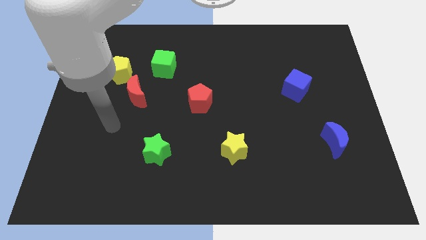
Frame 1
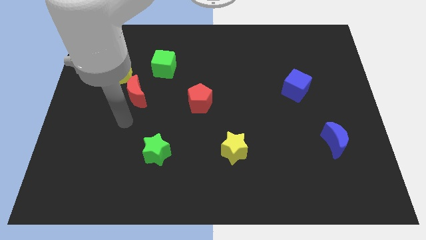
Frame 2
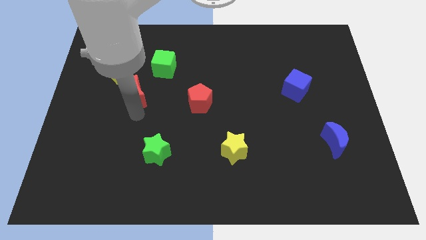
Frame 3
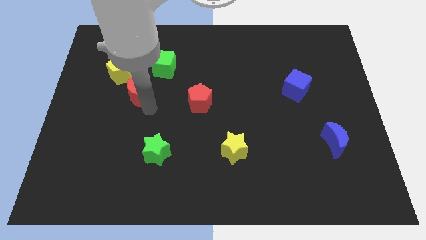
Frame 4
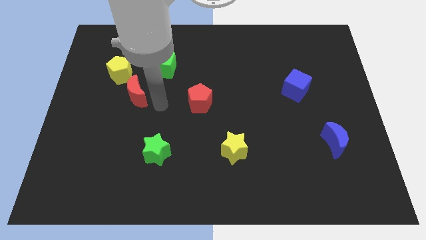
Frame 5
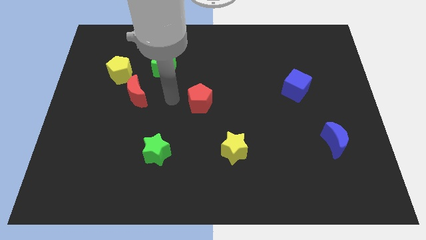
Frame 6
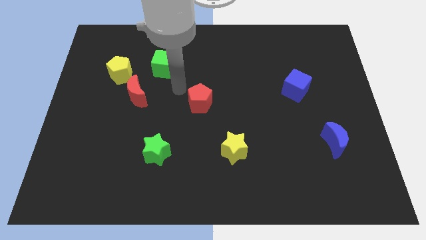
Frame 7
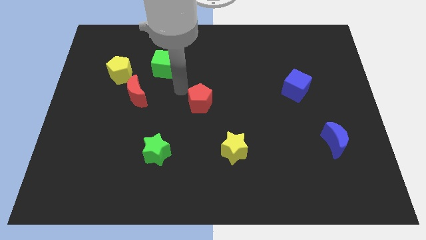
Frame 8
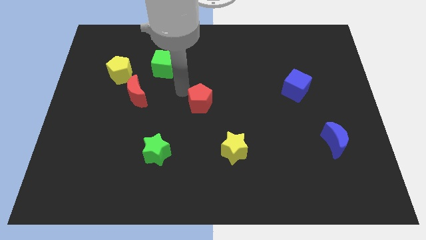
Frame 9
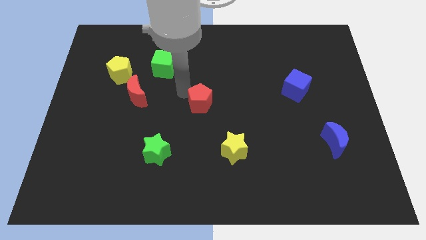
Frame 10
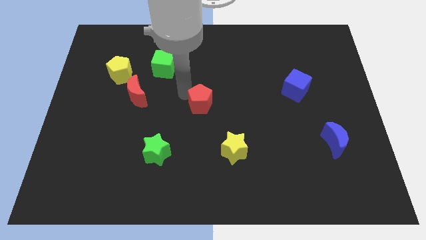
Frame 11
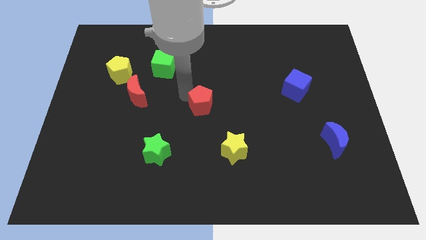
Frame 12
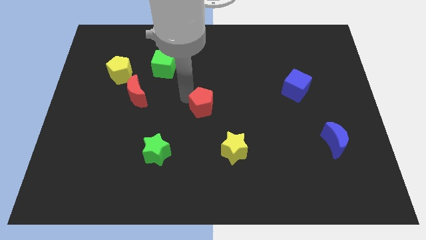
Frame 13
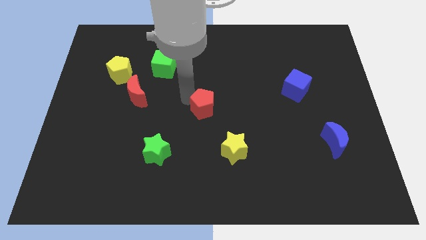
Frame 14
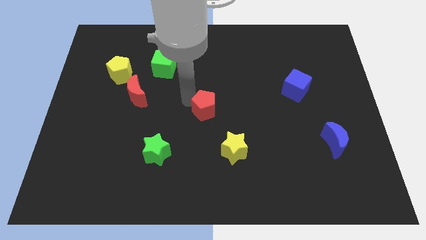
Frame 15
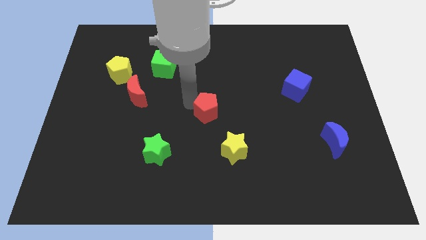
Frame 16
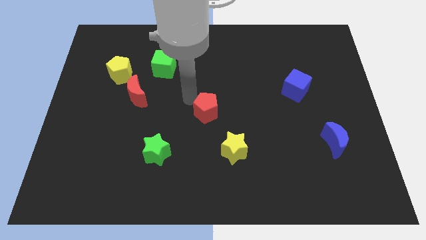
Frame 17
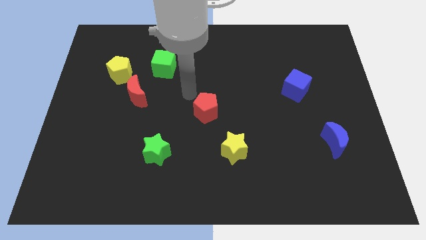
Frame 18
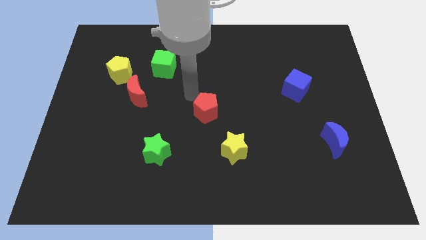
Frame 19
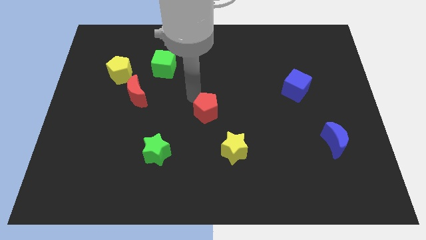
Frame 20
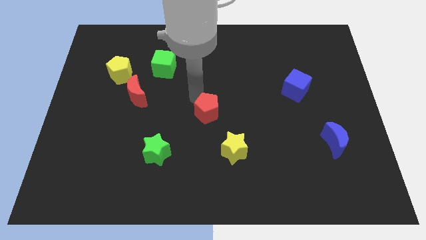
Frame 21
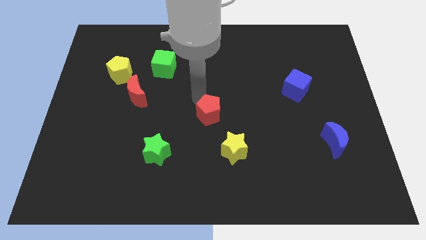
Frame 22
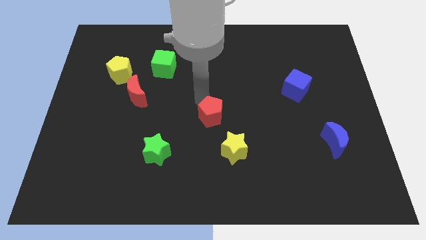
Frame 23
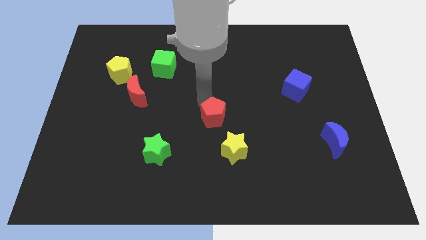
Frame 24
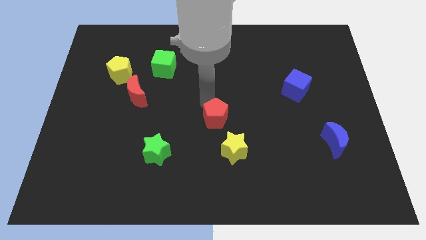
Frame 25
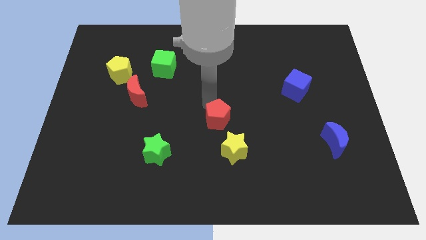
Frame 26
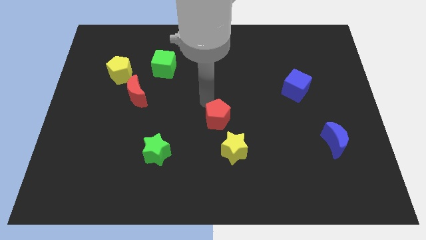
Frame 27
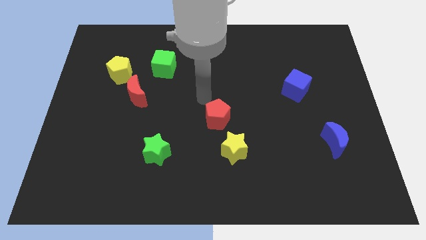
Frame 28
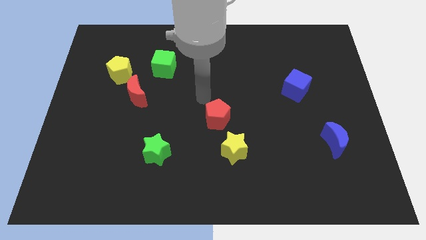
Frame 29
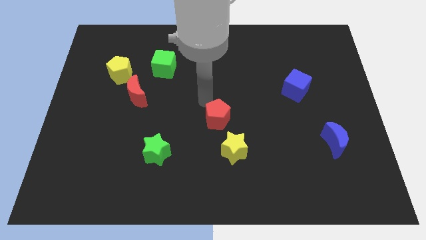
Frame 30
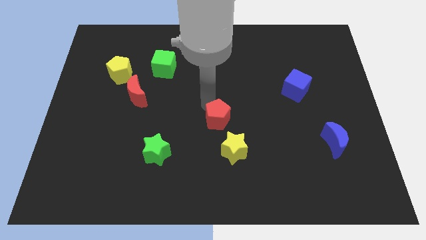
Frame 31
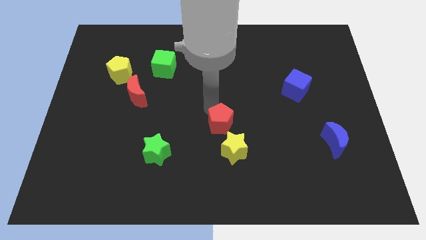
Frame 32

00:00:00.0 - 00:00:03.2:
push the red pentagon somewhat downwards and right diagonally

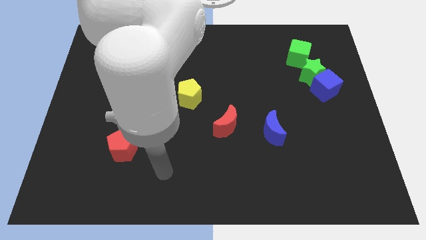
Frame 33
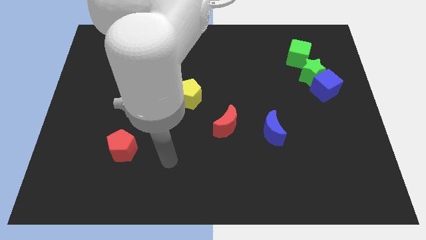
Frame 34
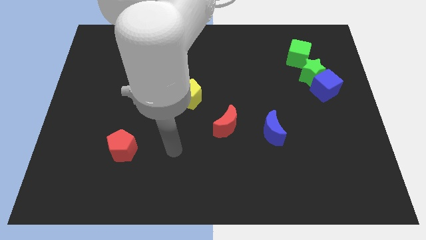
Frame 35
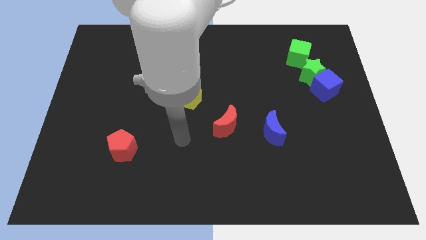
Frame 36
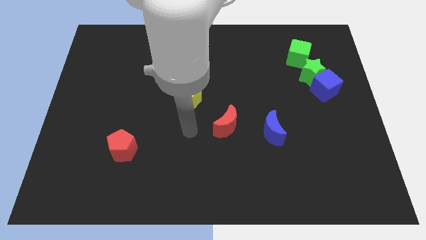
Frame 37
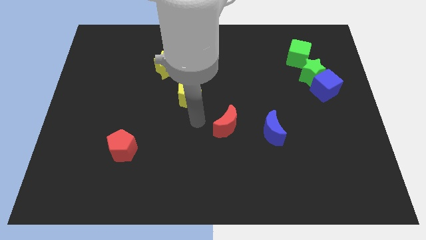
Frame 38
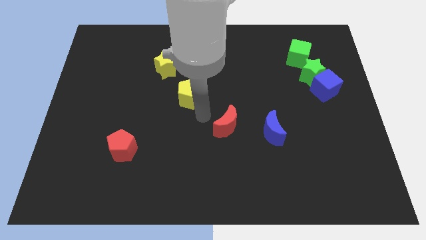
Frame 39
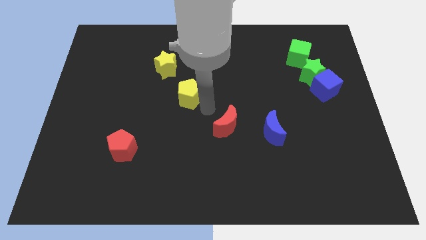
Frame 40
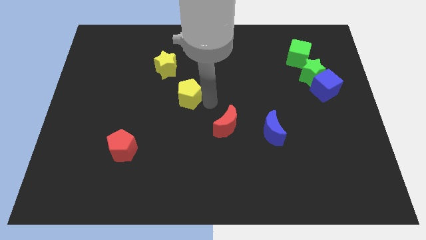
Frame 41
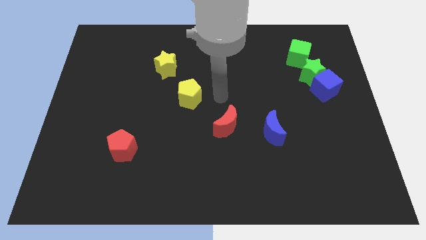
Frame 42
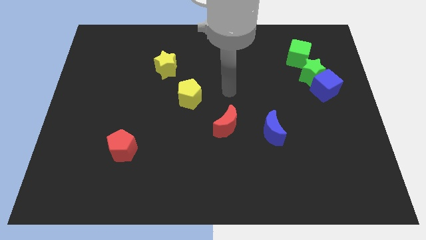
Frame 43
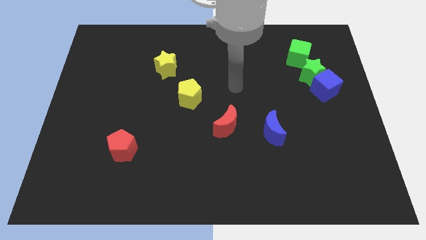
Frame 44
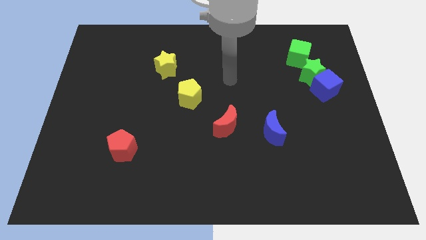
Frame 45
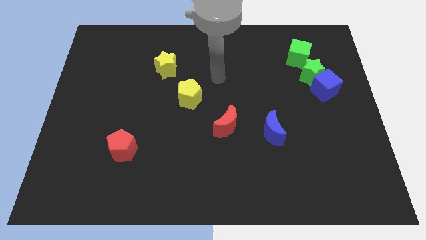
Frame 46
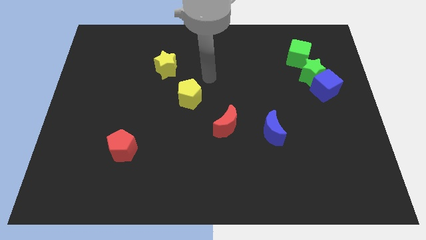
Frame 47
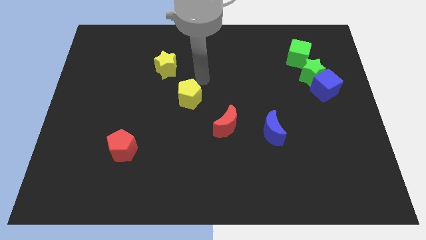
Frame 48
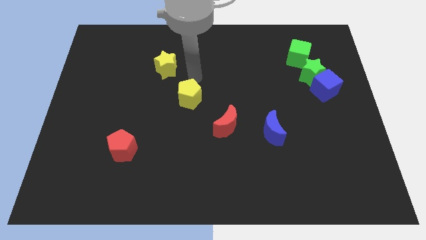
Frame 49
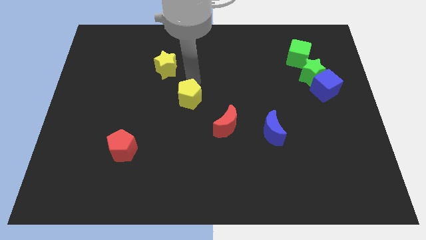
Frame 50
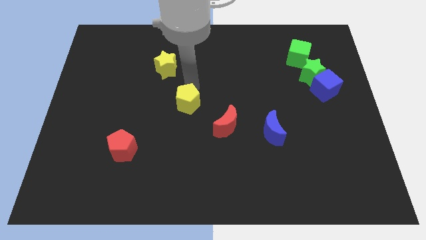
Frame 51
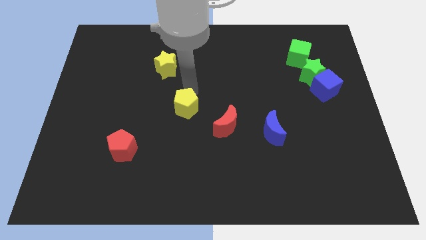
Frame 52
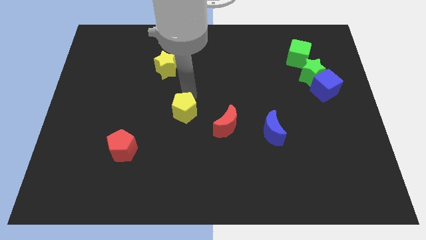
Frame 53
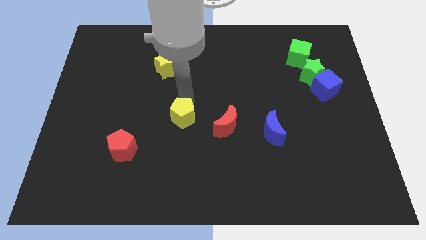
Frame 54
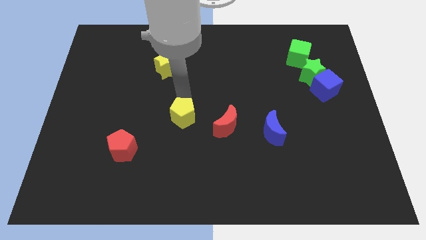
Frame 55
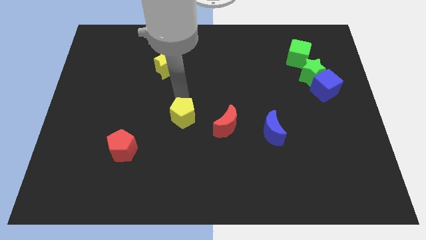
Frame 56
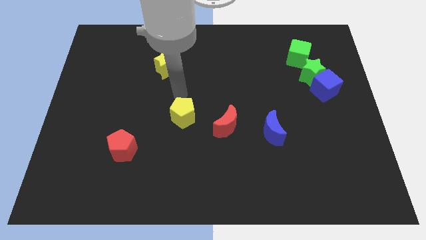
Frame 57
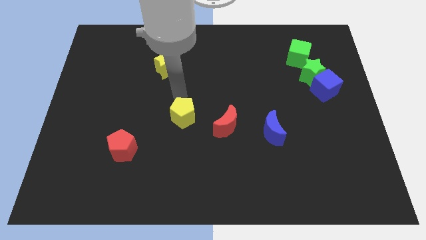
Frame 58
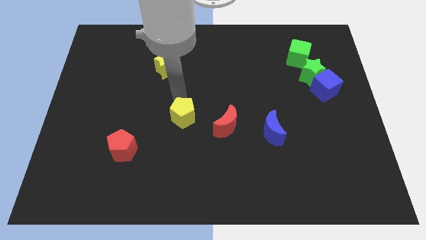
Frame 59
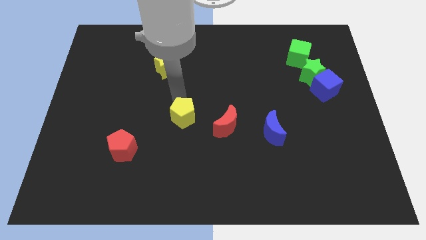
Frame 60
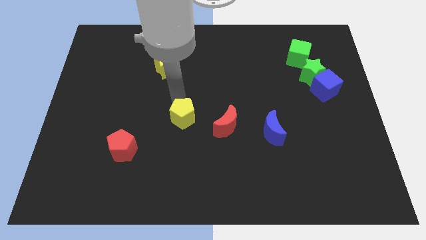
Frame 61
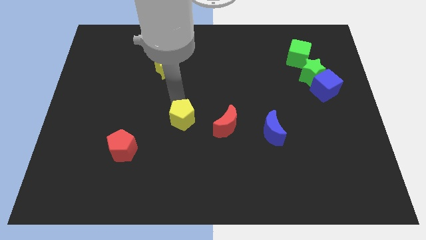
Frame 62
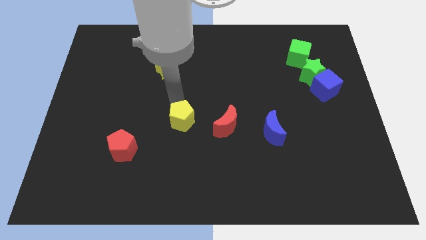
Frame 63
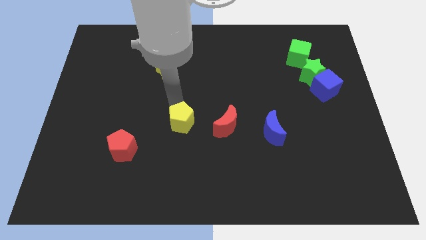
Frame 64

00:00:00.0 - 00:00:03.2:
slightly move the yellow pentagon down

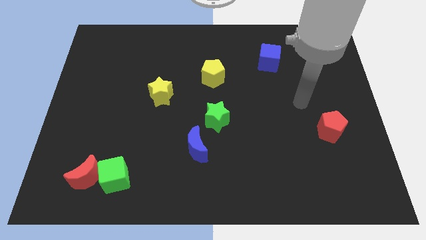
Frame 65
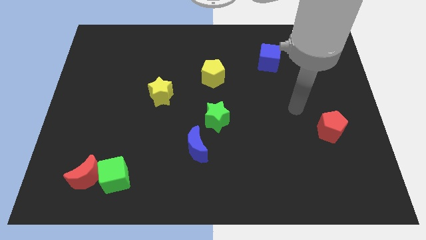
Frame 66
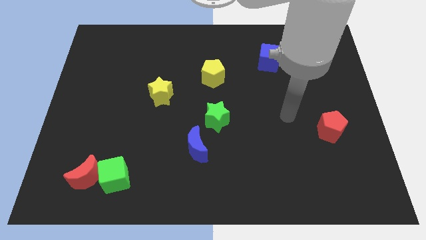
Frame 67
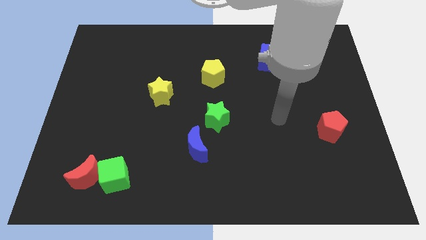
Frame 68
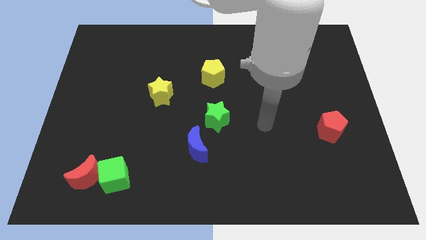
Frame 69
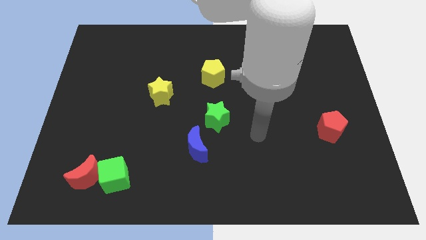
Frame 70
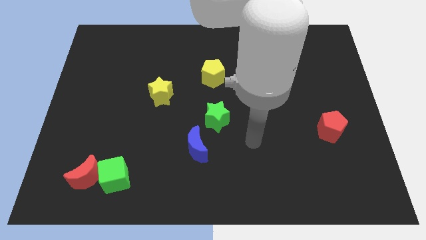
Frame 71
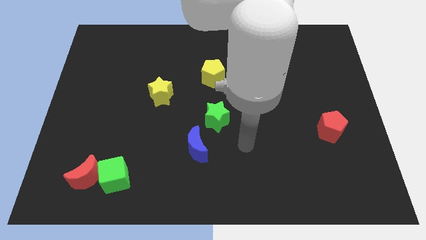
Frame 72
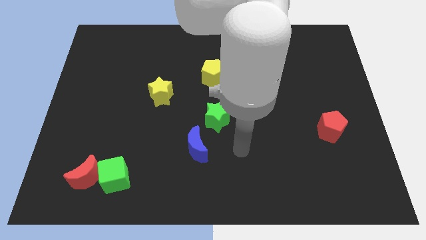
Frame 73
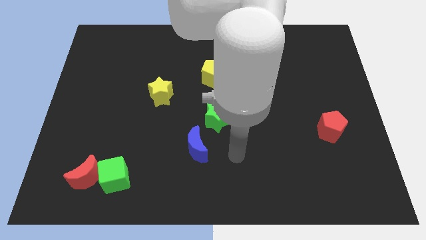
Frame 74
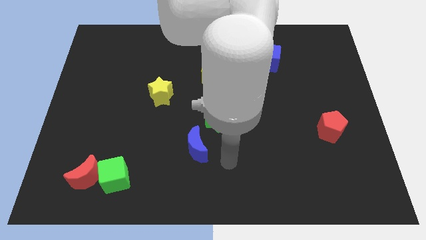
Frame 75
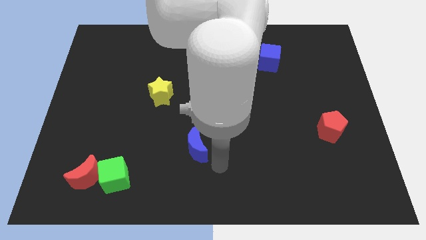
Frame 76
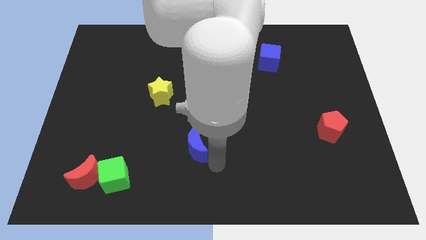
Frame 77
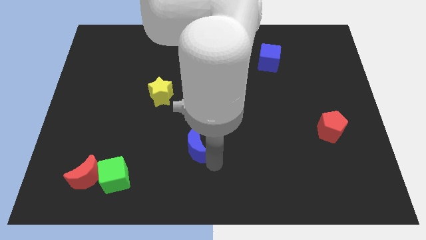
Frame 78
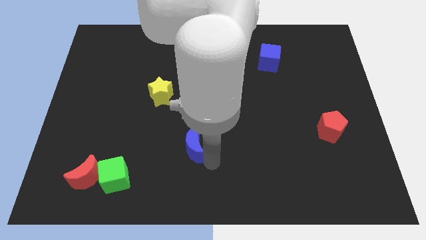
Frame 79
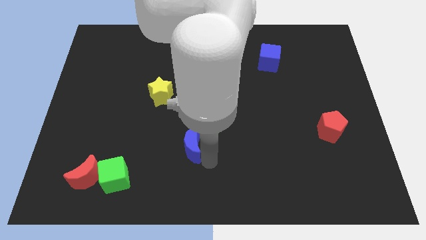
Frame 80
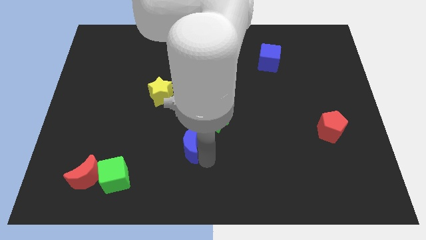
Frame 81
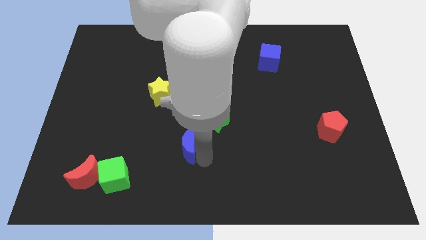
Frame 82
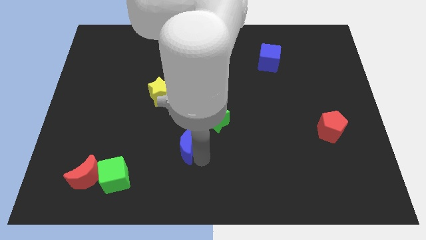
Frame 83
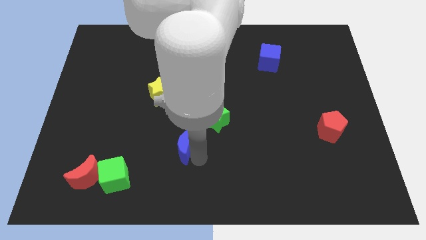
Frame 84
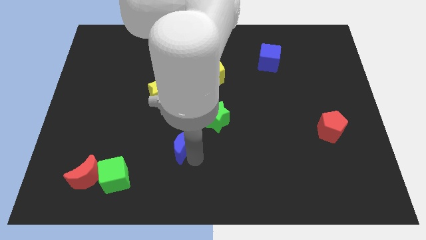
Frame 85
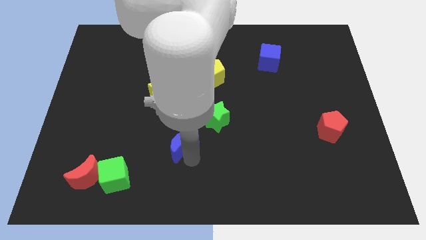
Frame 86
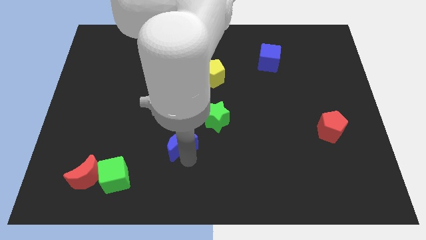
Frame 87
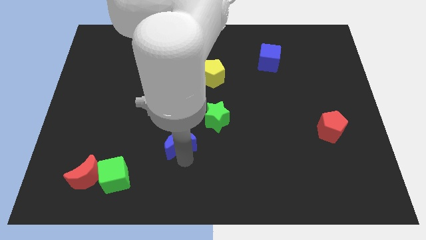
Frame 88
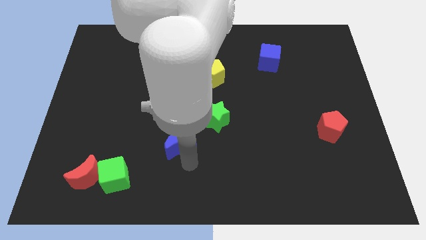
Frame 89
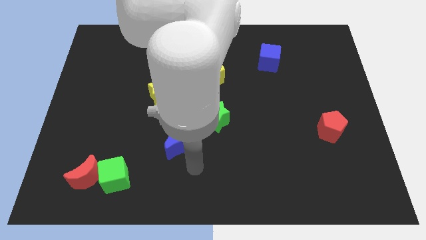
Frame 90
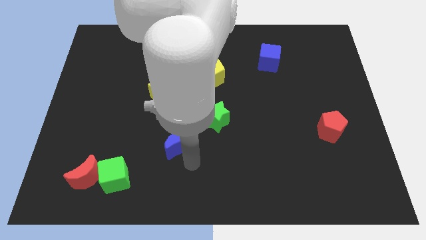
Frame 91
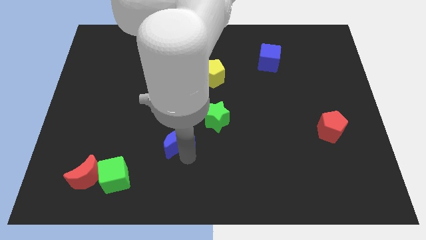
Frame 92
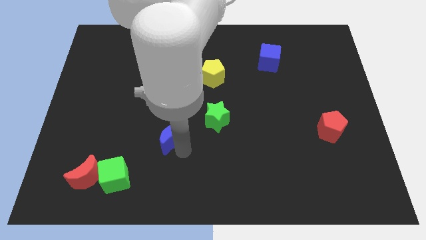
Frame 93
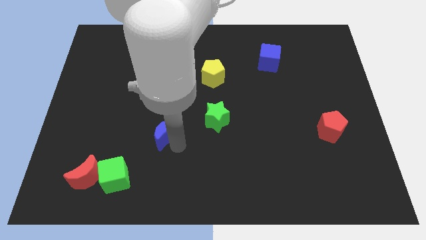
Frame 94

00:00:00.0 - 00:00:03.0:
move the blue moon a little diagonally up and left
